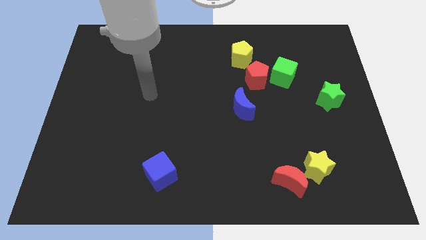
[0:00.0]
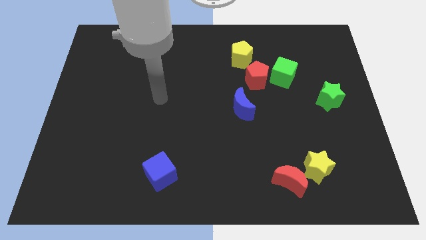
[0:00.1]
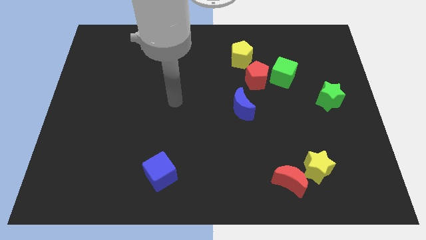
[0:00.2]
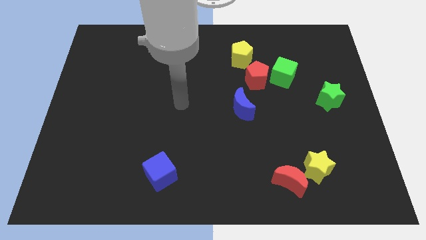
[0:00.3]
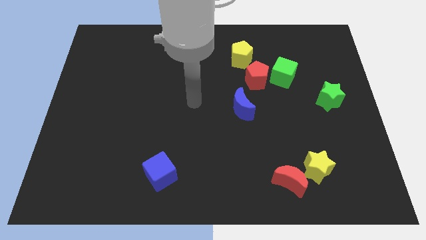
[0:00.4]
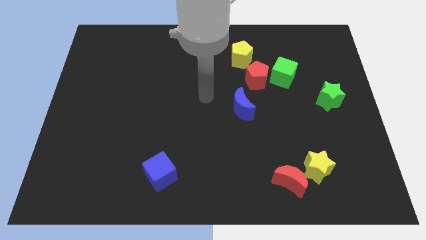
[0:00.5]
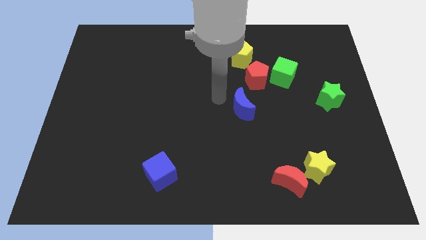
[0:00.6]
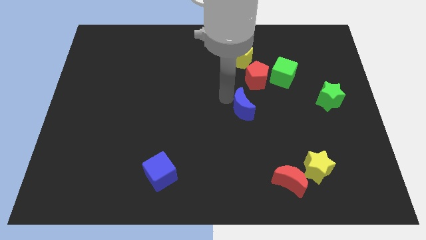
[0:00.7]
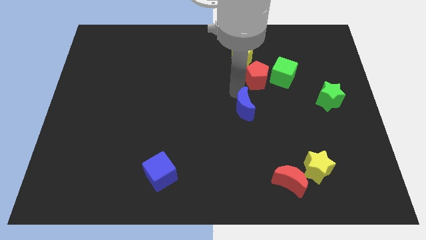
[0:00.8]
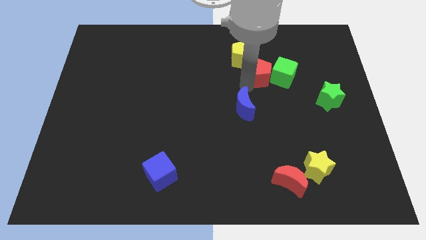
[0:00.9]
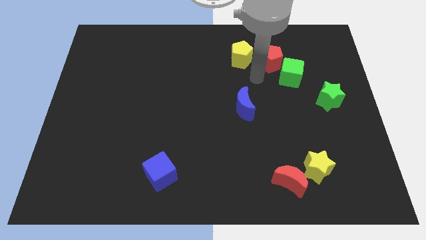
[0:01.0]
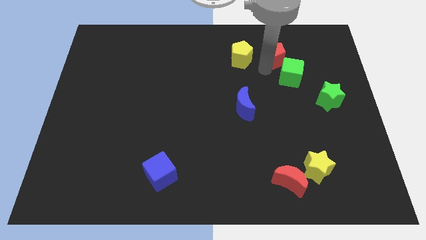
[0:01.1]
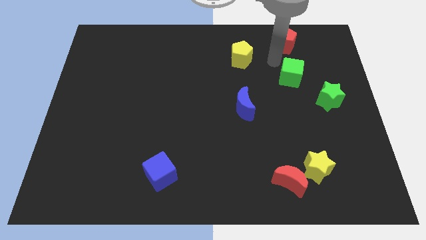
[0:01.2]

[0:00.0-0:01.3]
separate the green cube from the red pentagon

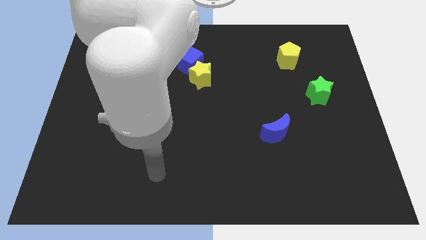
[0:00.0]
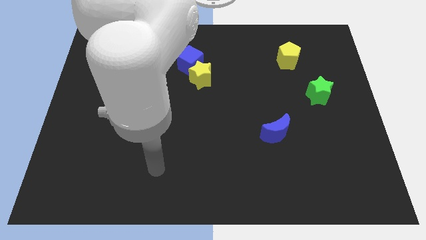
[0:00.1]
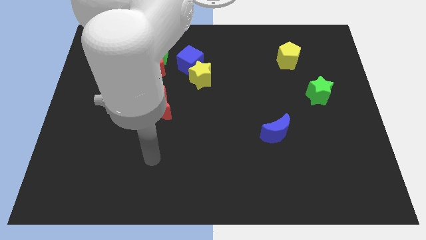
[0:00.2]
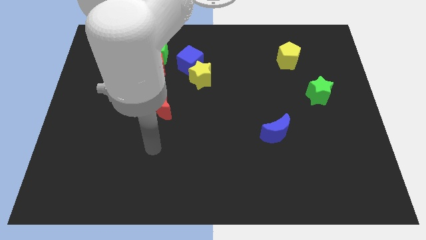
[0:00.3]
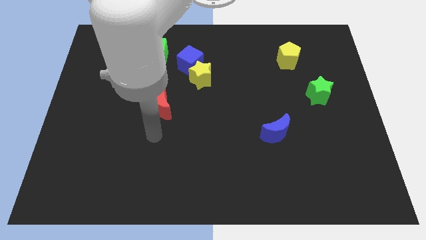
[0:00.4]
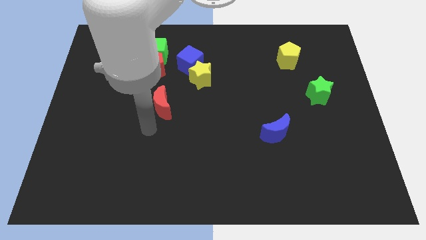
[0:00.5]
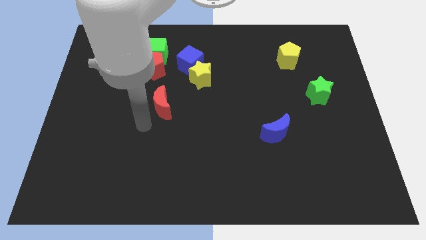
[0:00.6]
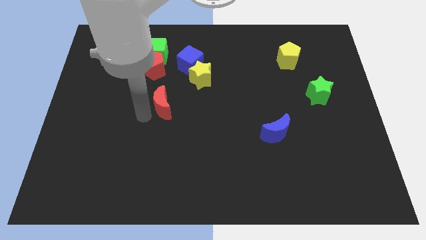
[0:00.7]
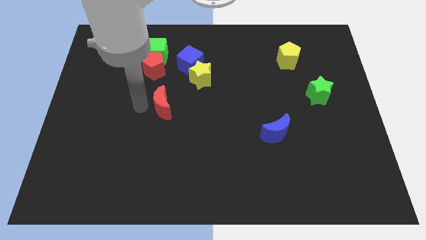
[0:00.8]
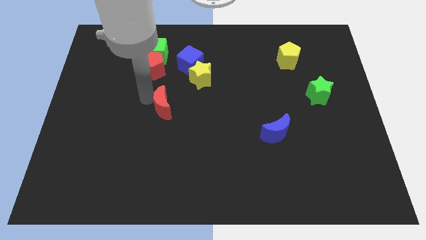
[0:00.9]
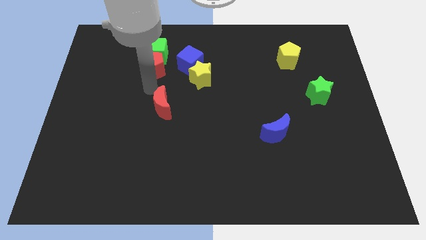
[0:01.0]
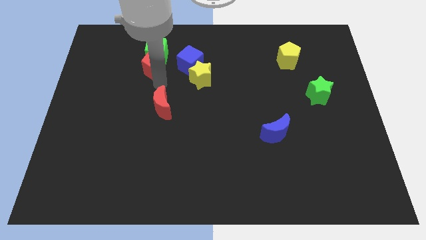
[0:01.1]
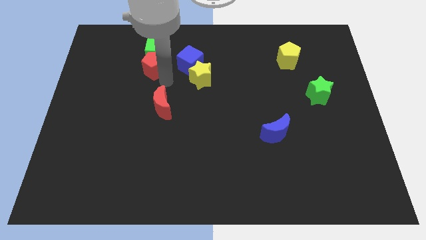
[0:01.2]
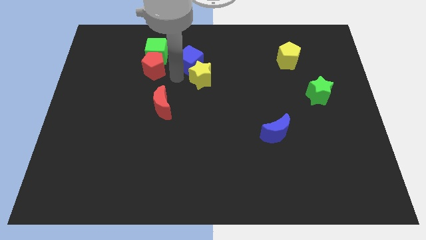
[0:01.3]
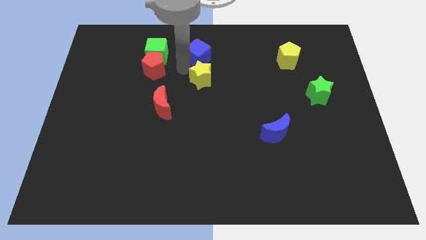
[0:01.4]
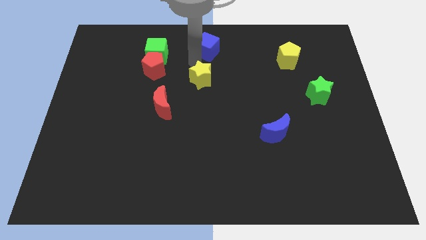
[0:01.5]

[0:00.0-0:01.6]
pull the yellow star apart from the blue cube

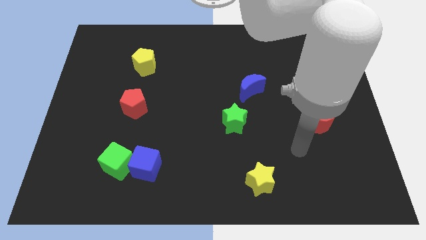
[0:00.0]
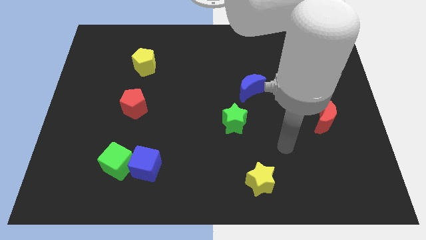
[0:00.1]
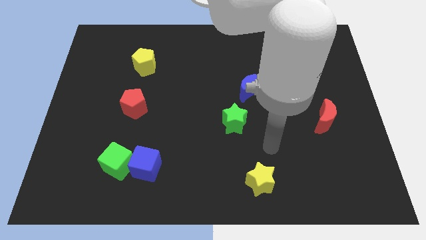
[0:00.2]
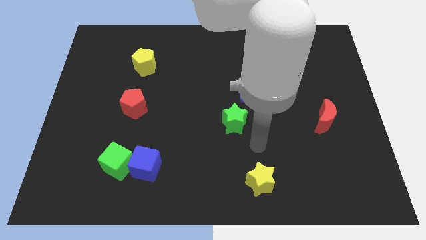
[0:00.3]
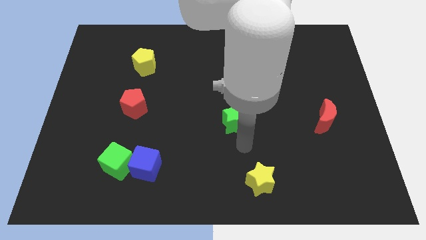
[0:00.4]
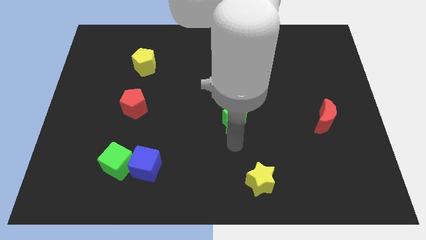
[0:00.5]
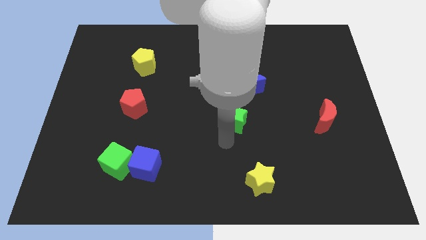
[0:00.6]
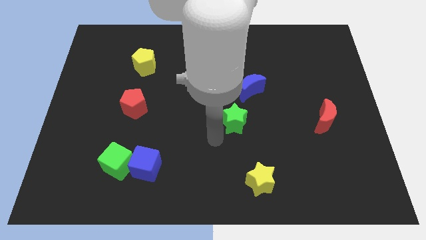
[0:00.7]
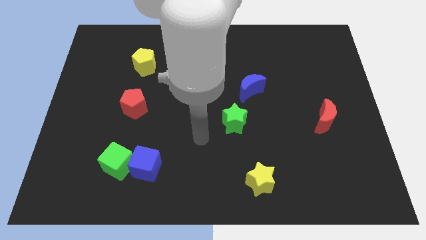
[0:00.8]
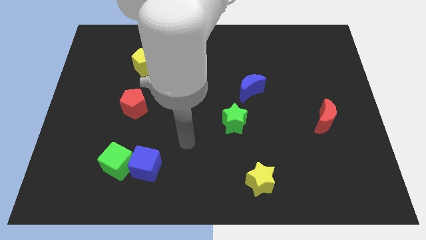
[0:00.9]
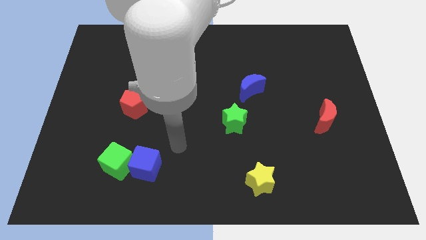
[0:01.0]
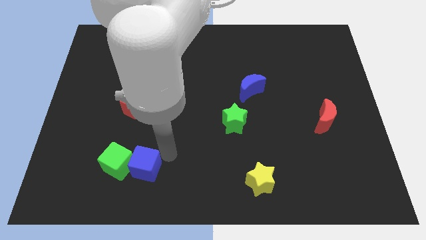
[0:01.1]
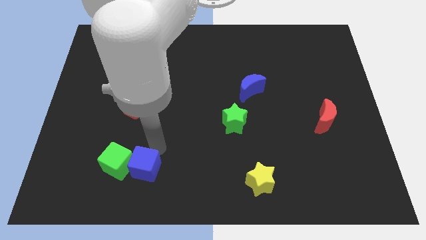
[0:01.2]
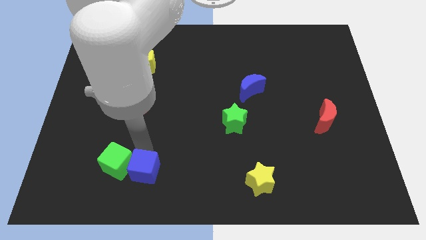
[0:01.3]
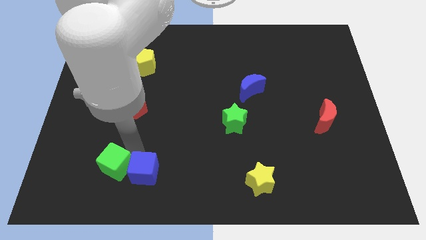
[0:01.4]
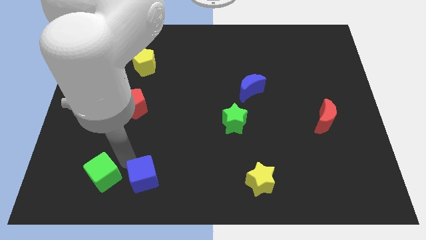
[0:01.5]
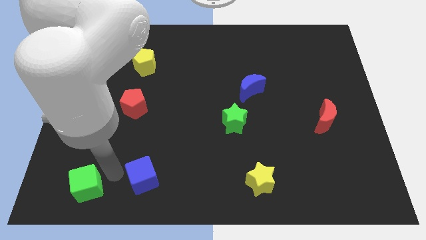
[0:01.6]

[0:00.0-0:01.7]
pull the blue cube apart from the green cube

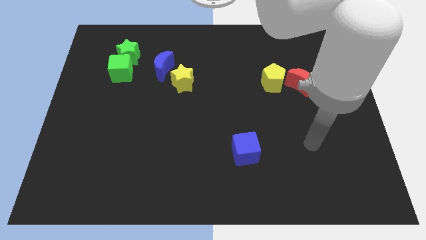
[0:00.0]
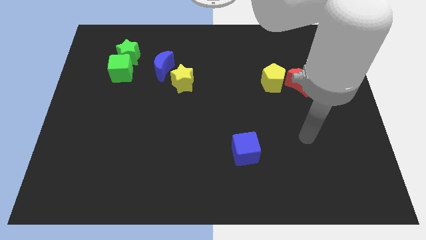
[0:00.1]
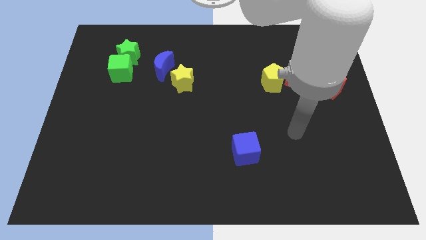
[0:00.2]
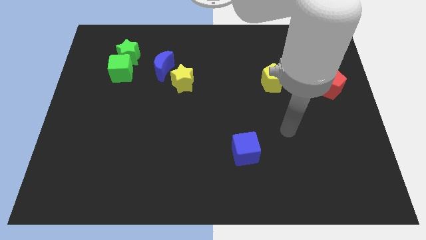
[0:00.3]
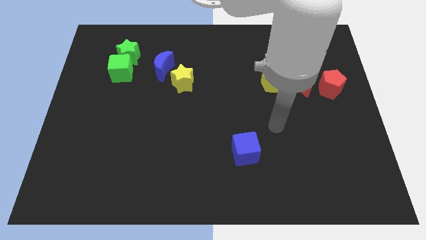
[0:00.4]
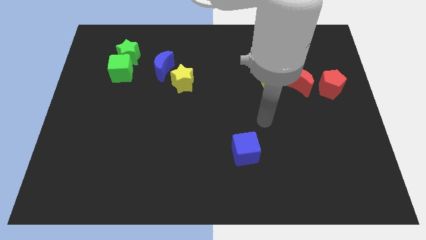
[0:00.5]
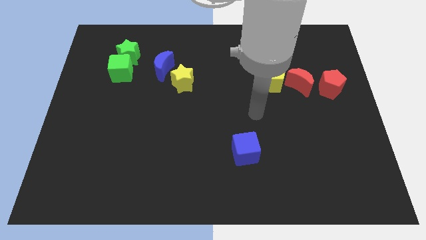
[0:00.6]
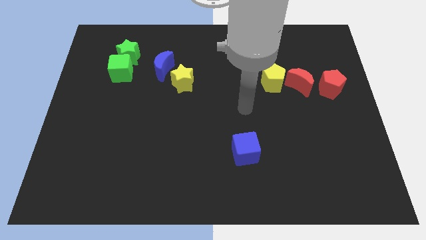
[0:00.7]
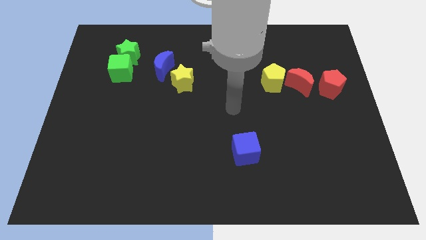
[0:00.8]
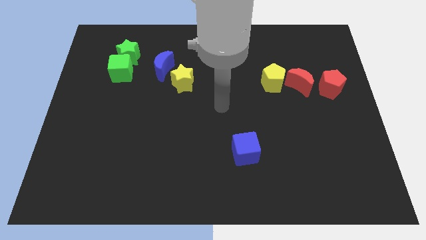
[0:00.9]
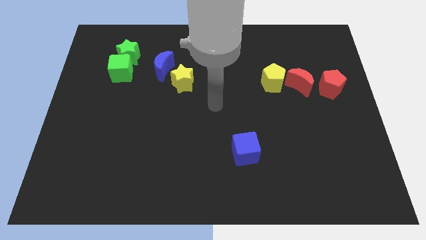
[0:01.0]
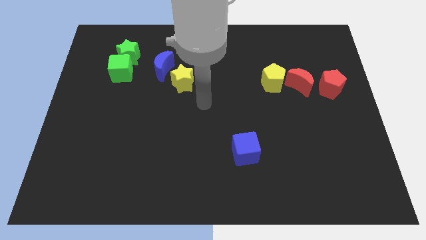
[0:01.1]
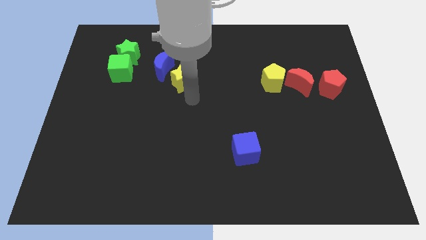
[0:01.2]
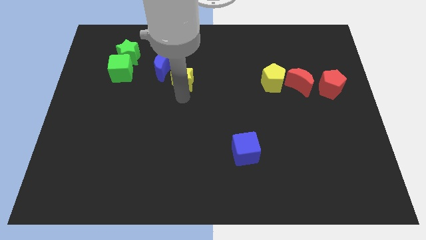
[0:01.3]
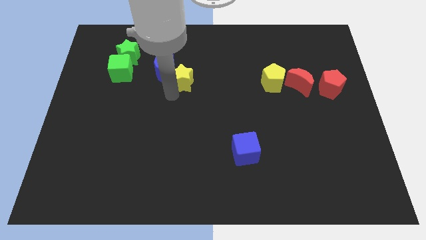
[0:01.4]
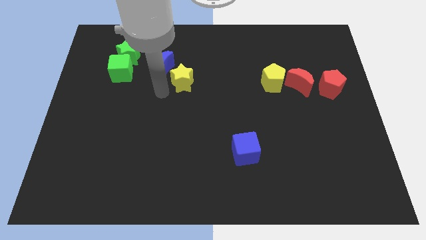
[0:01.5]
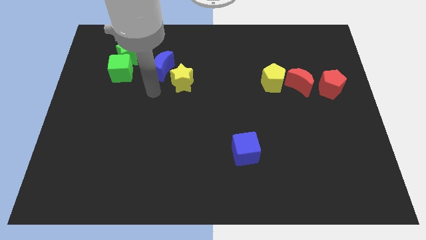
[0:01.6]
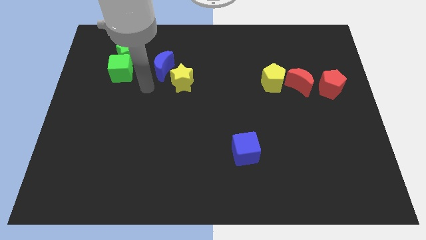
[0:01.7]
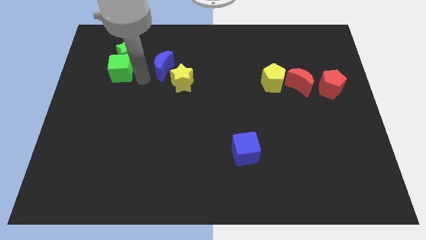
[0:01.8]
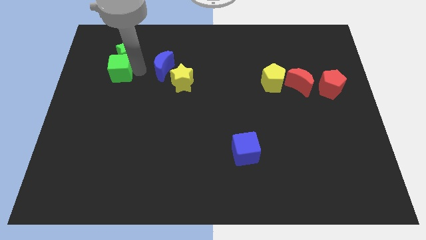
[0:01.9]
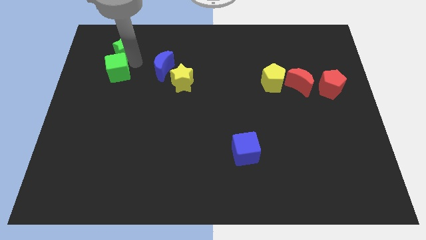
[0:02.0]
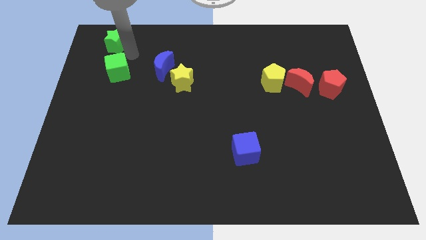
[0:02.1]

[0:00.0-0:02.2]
separate the green cube from the green star

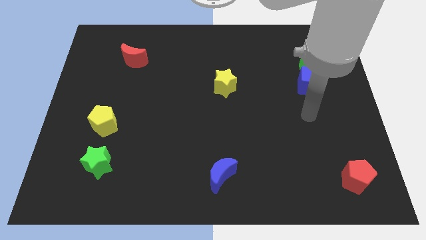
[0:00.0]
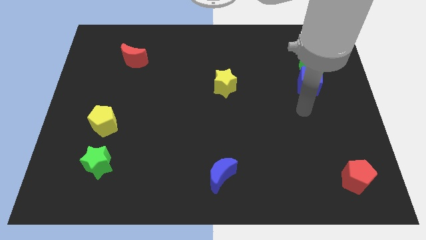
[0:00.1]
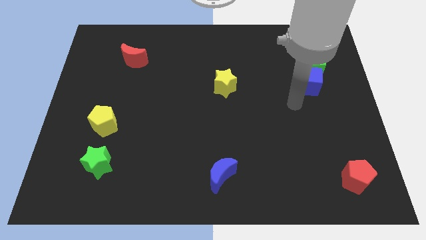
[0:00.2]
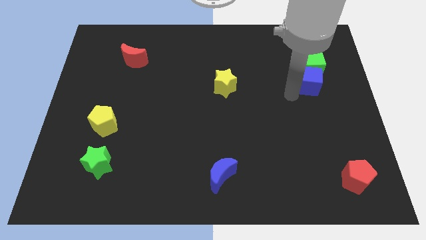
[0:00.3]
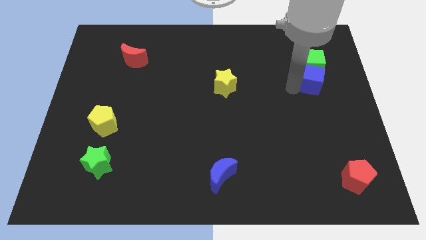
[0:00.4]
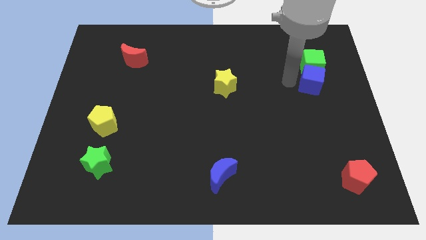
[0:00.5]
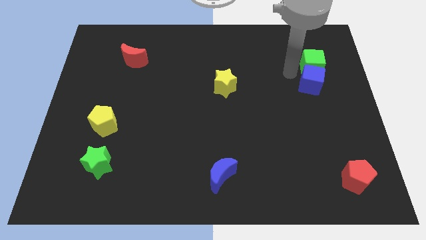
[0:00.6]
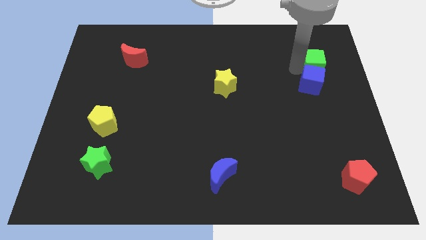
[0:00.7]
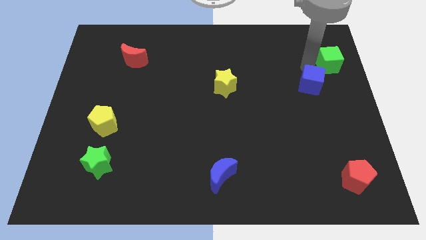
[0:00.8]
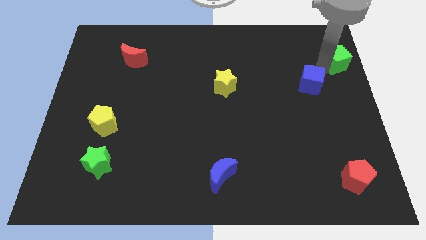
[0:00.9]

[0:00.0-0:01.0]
separate the blue cube from the green cube

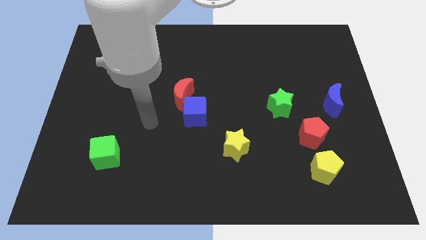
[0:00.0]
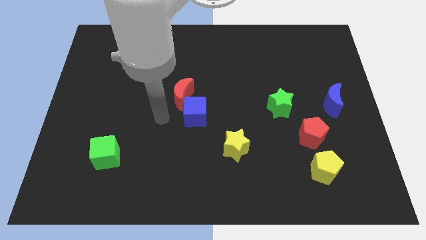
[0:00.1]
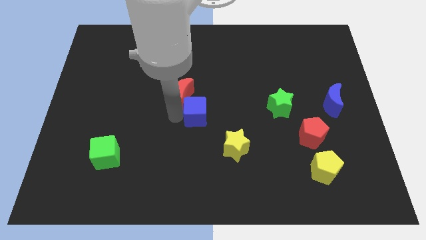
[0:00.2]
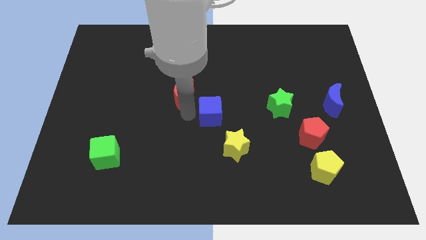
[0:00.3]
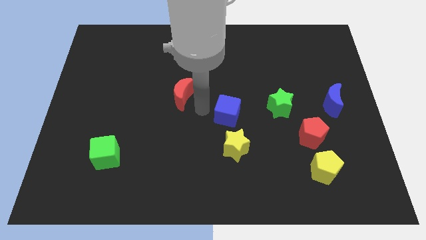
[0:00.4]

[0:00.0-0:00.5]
move the red moon away from the blue cube

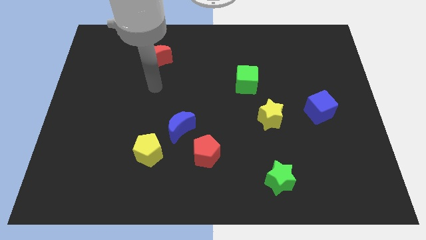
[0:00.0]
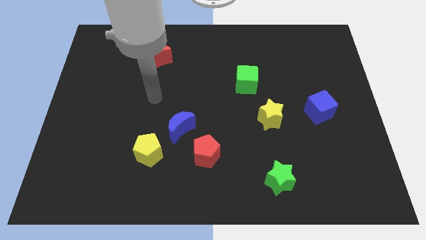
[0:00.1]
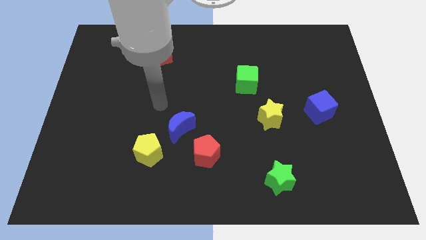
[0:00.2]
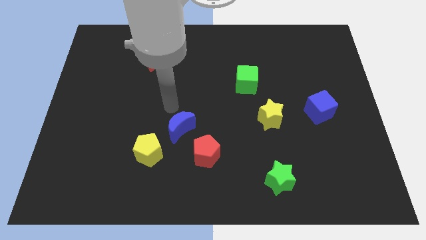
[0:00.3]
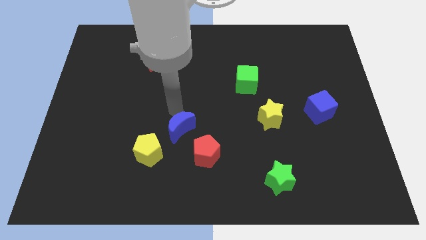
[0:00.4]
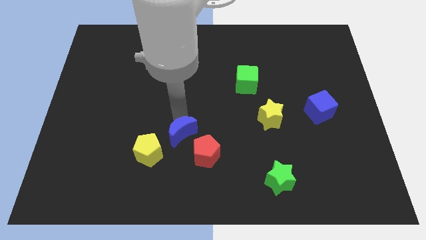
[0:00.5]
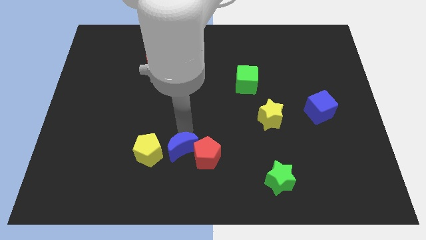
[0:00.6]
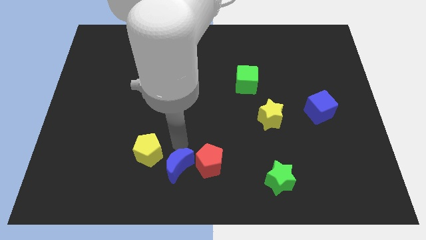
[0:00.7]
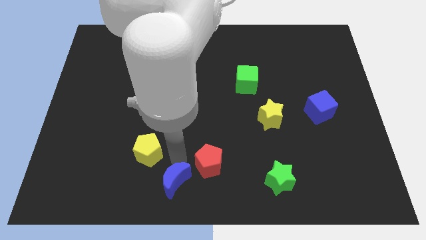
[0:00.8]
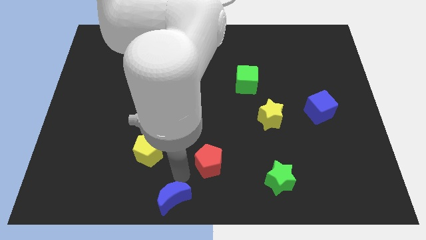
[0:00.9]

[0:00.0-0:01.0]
pull the red pentagon apart from the blue moon
